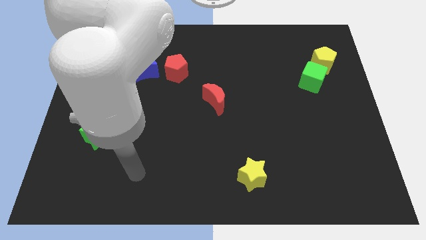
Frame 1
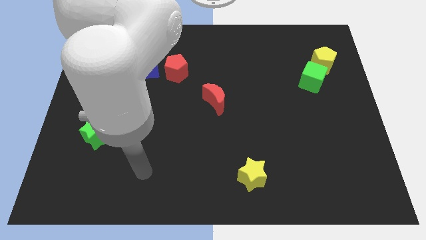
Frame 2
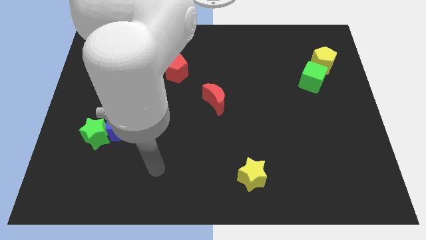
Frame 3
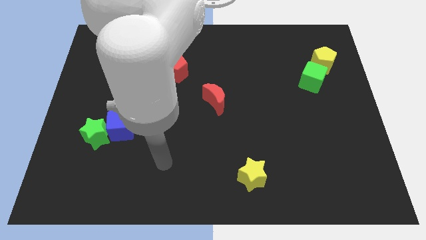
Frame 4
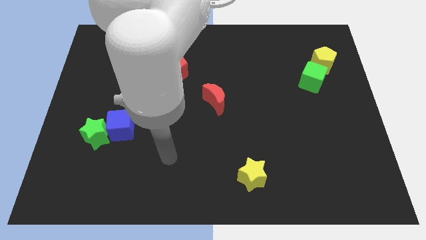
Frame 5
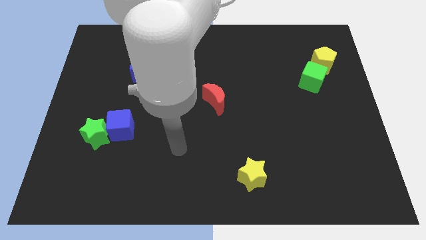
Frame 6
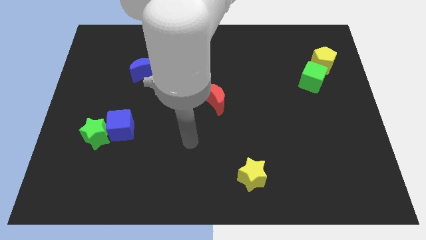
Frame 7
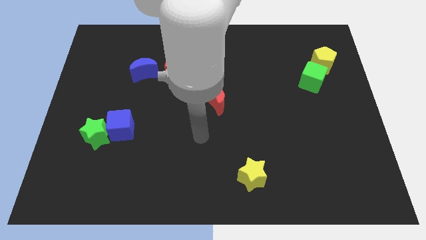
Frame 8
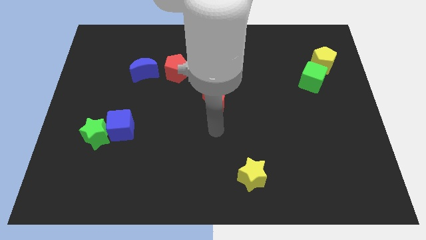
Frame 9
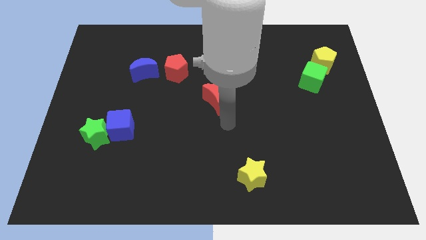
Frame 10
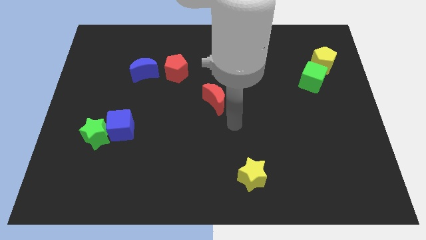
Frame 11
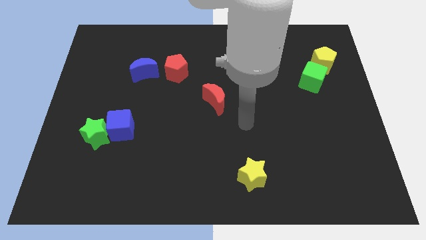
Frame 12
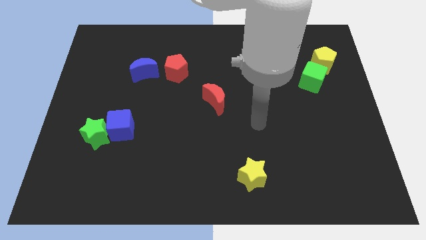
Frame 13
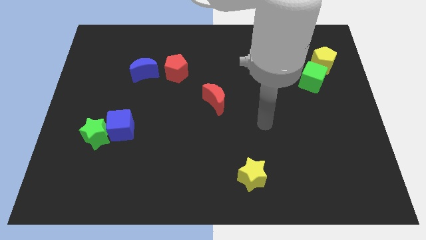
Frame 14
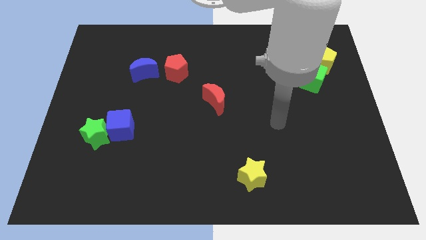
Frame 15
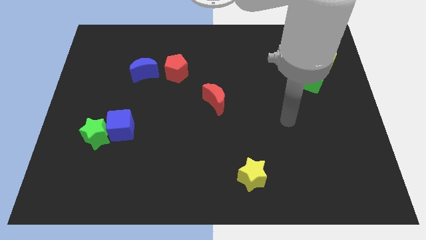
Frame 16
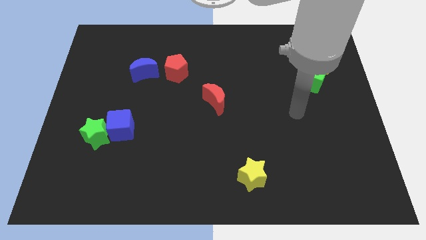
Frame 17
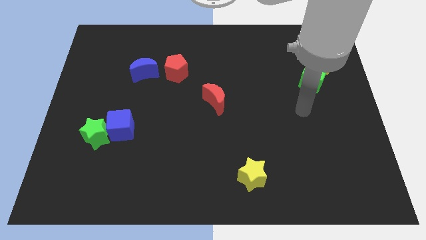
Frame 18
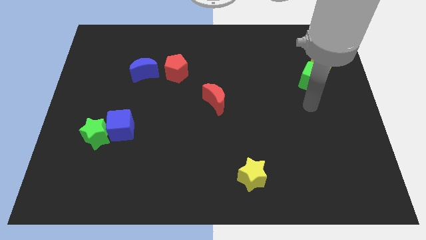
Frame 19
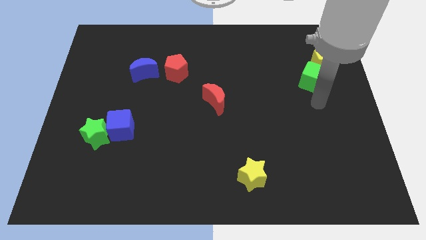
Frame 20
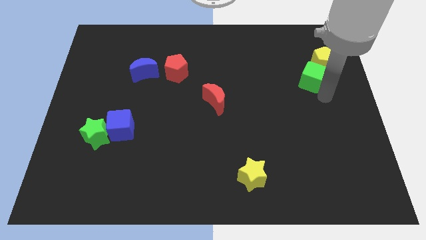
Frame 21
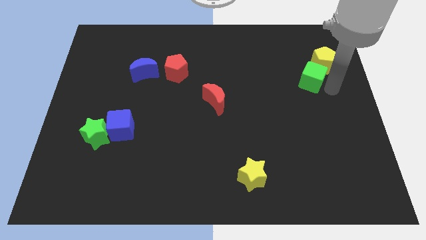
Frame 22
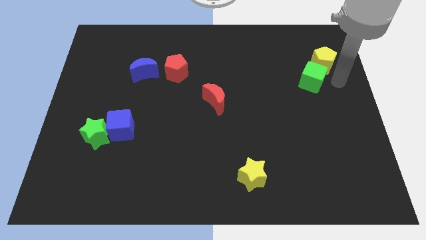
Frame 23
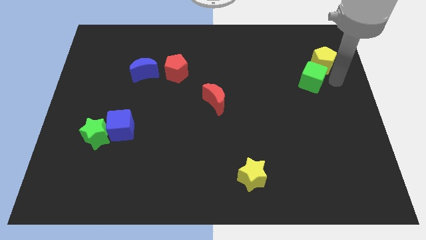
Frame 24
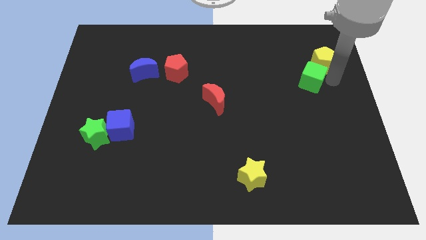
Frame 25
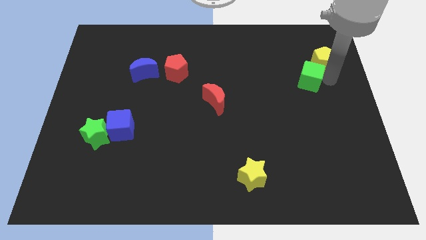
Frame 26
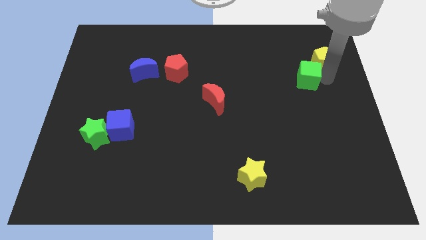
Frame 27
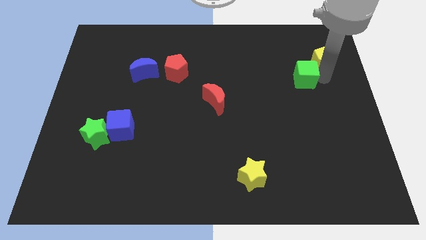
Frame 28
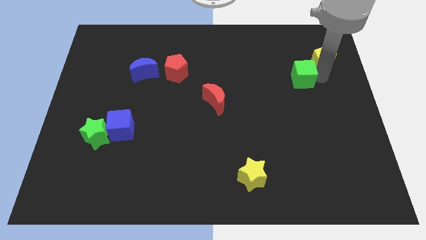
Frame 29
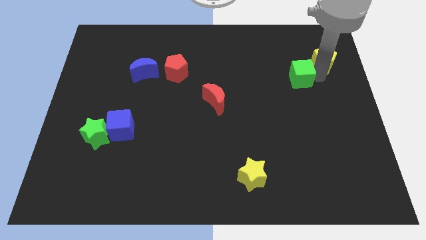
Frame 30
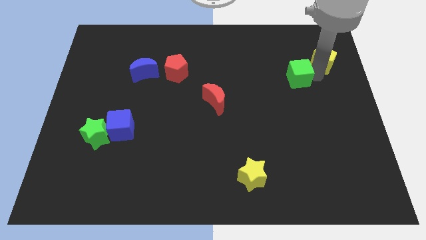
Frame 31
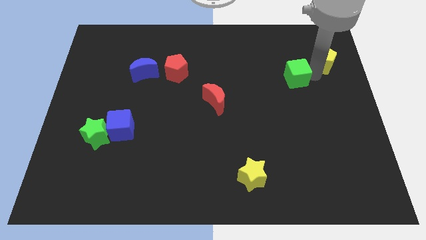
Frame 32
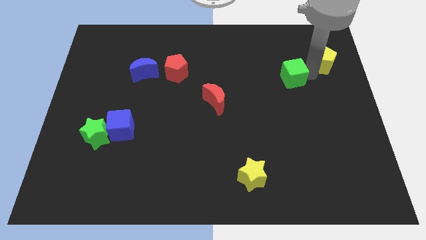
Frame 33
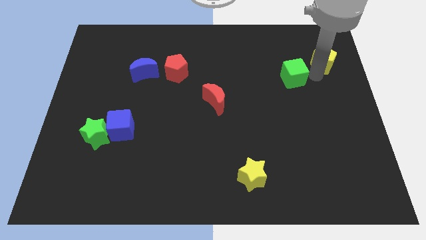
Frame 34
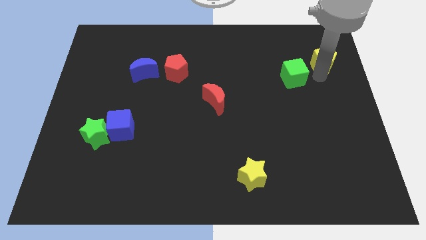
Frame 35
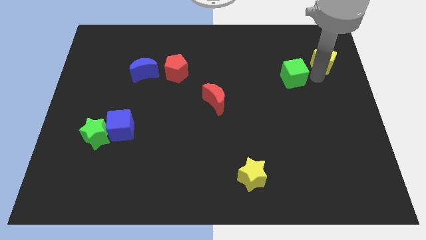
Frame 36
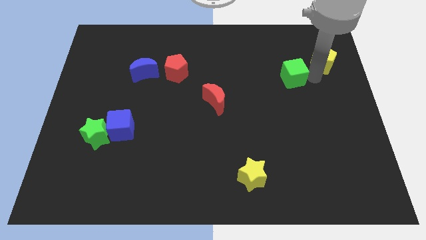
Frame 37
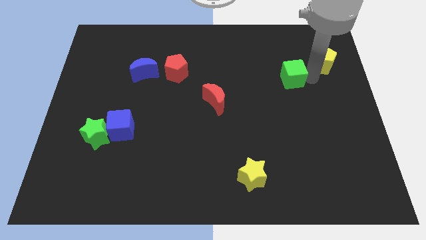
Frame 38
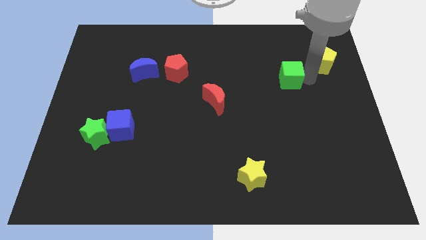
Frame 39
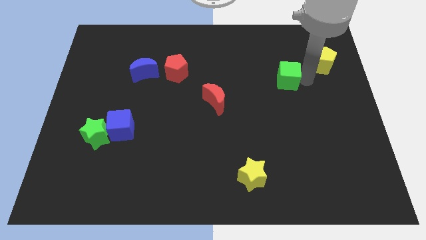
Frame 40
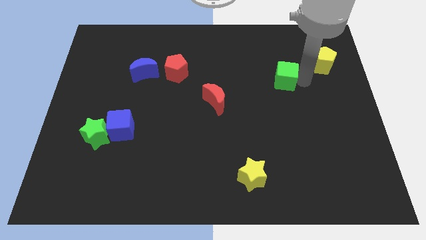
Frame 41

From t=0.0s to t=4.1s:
move the green cube to the left slightly

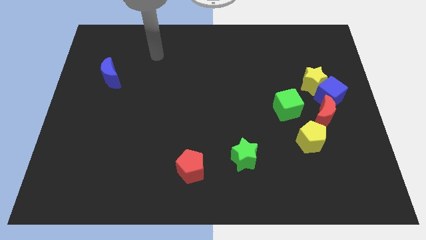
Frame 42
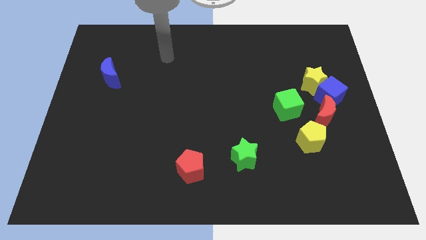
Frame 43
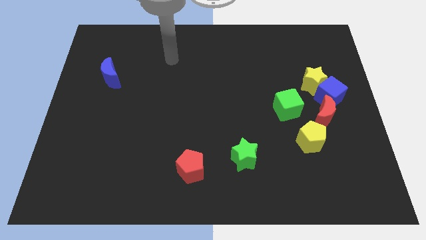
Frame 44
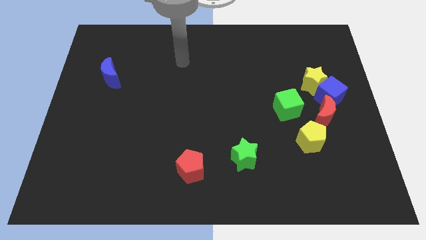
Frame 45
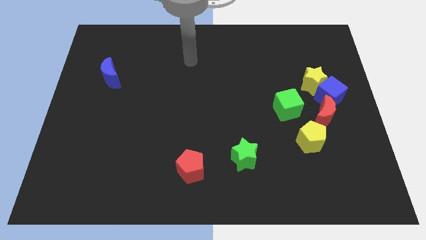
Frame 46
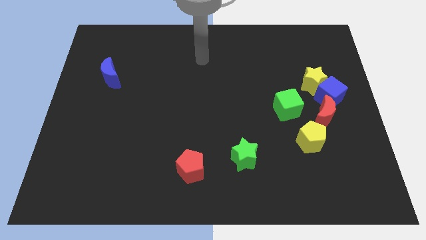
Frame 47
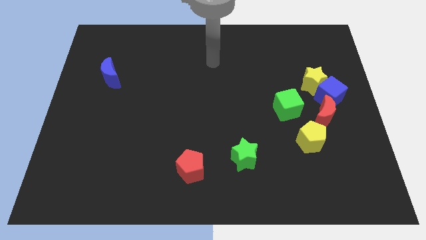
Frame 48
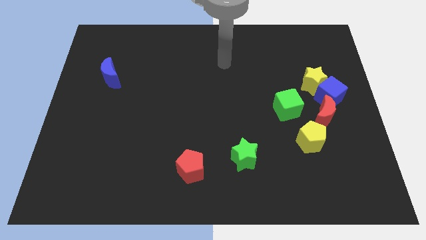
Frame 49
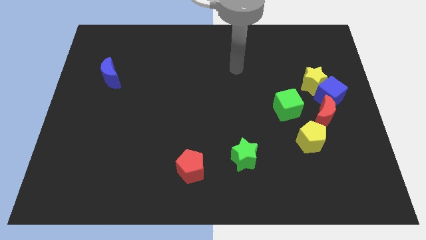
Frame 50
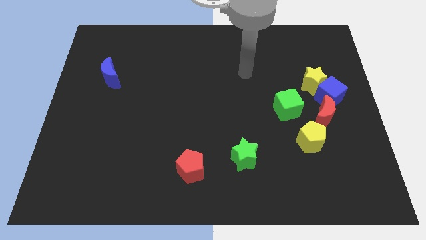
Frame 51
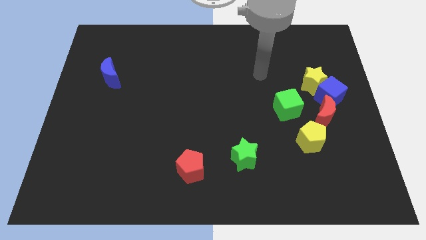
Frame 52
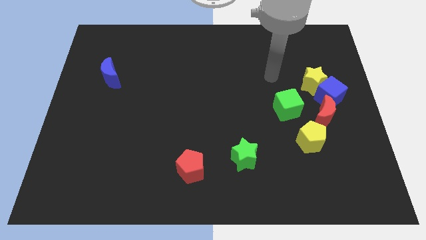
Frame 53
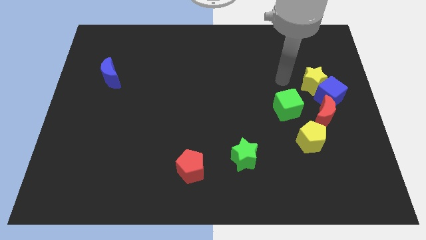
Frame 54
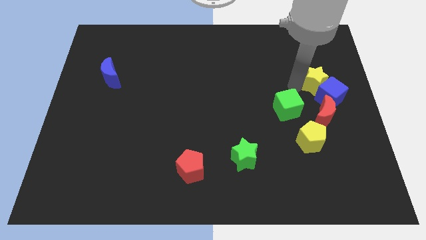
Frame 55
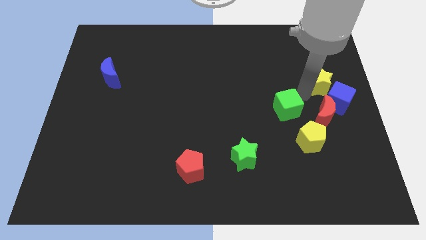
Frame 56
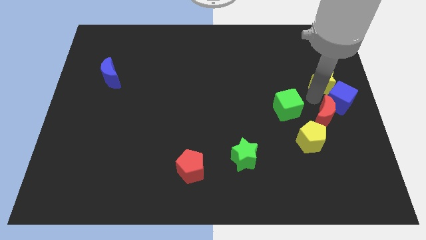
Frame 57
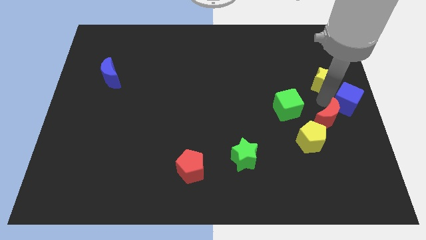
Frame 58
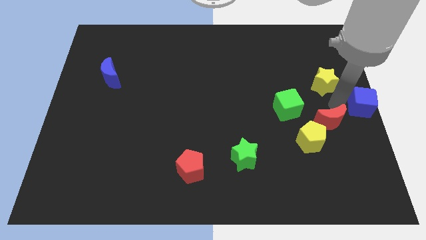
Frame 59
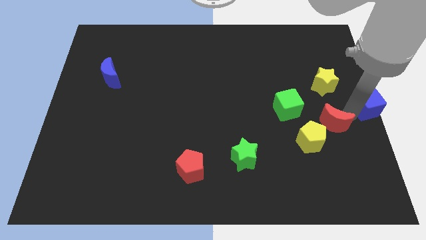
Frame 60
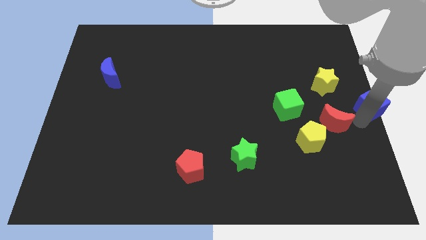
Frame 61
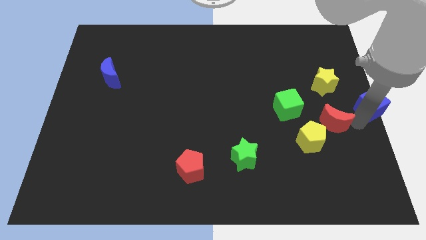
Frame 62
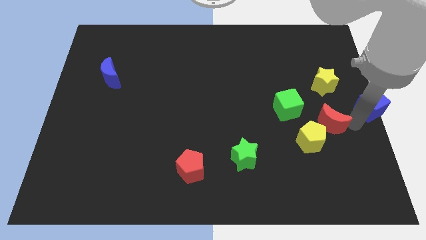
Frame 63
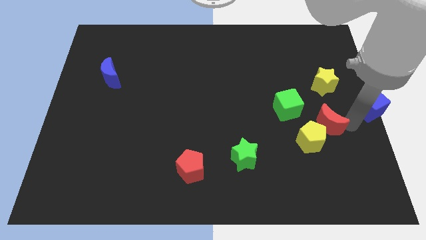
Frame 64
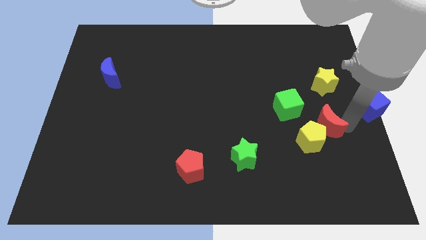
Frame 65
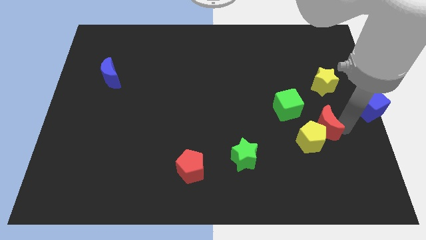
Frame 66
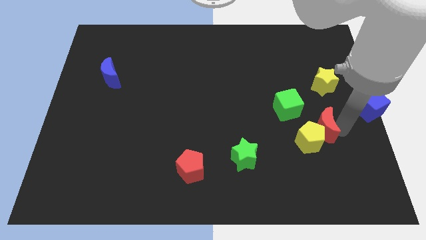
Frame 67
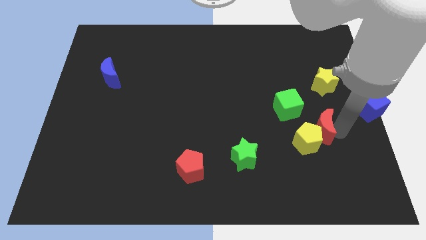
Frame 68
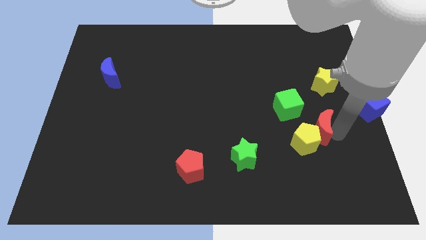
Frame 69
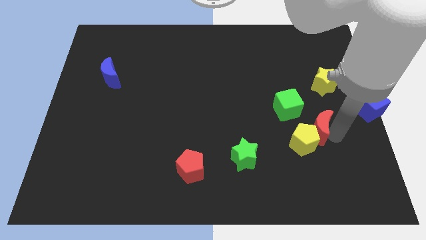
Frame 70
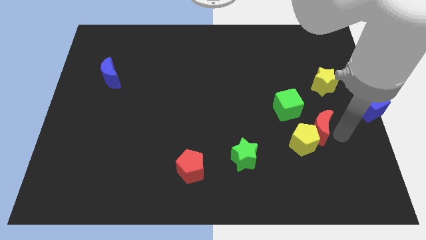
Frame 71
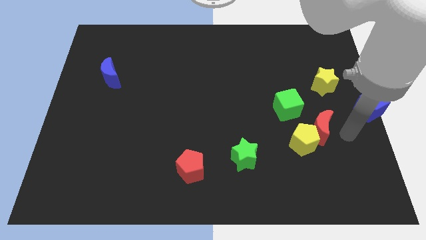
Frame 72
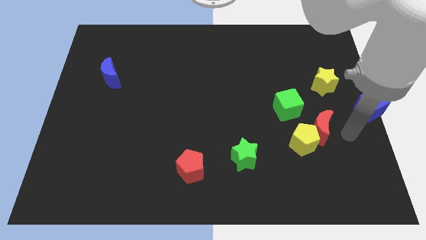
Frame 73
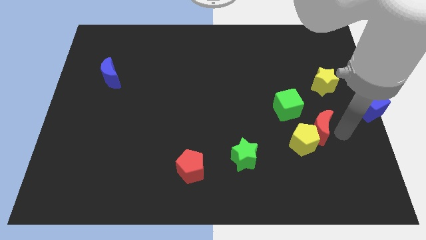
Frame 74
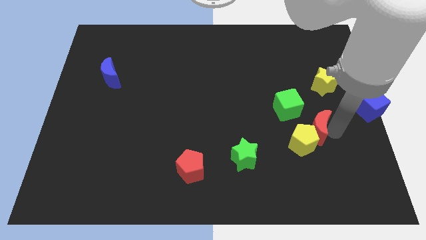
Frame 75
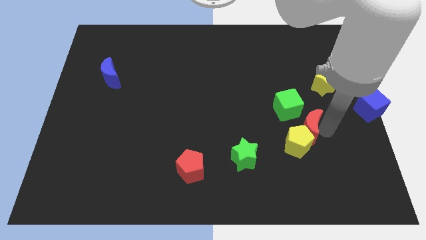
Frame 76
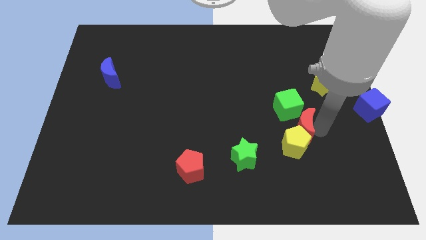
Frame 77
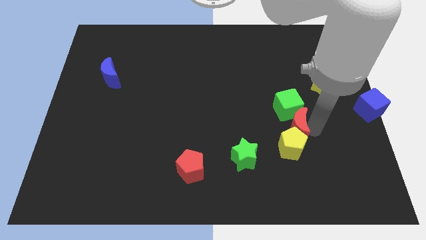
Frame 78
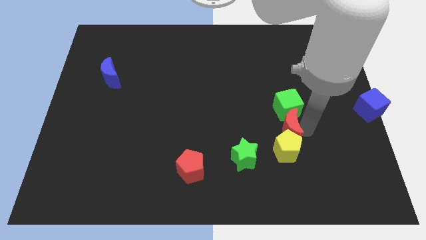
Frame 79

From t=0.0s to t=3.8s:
slightly move the red moon left
